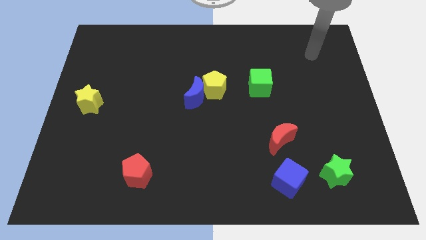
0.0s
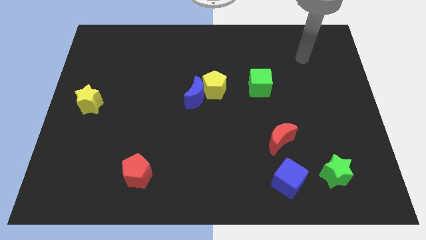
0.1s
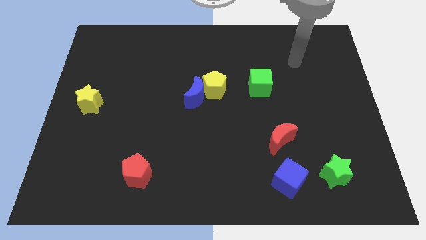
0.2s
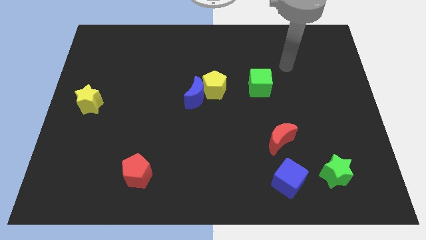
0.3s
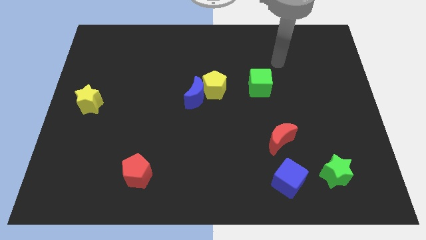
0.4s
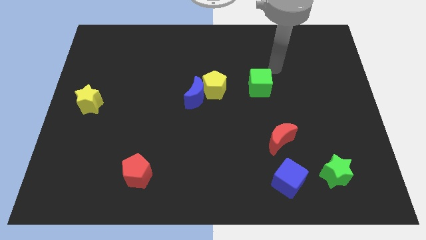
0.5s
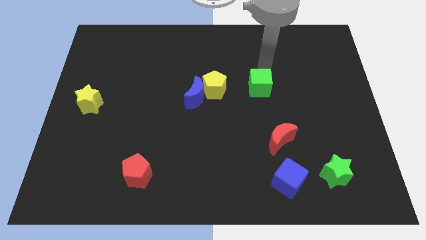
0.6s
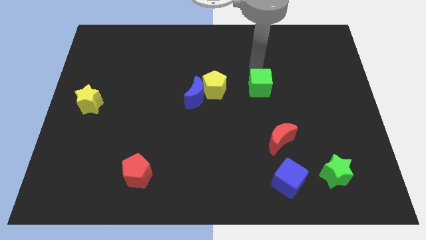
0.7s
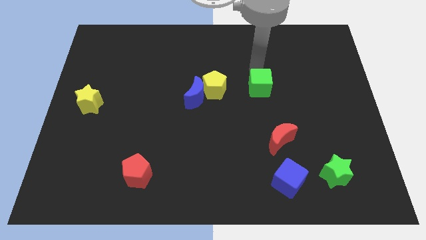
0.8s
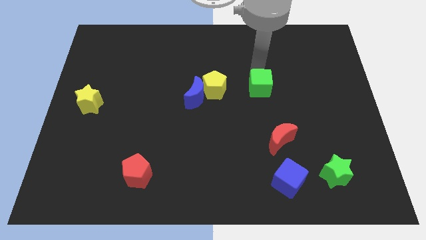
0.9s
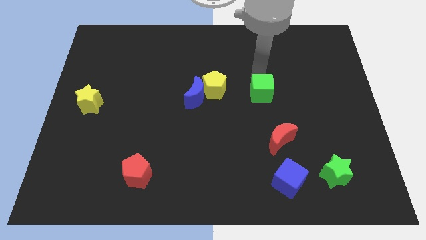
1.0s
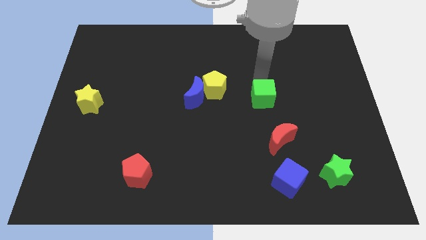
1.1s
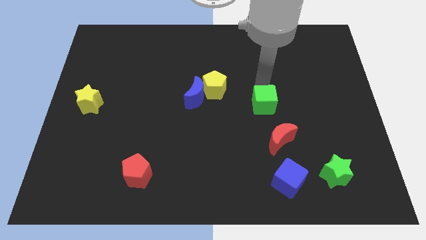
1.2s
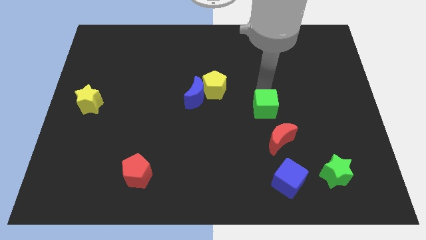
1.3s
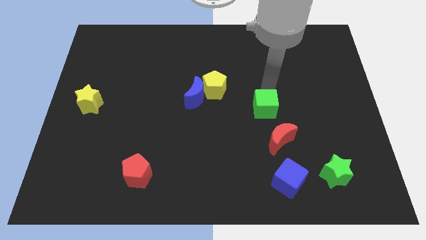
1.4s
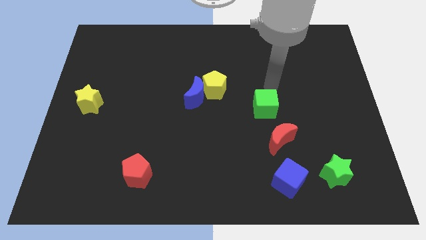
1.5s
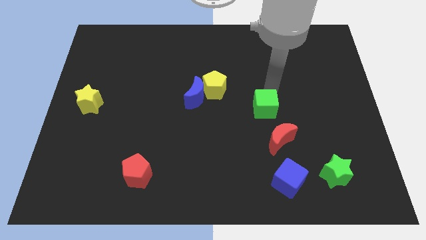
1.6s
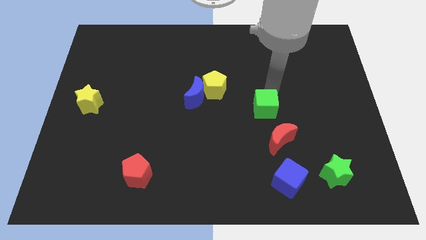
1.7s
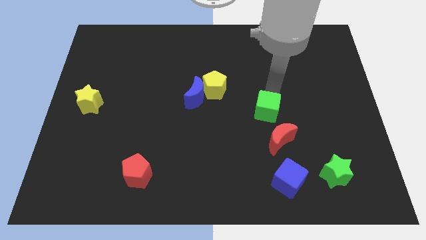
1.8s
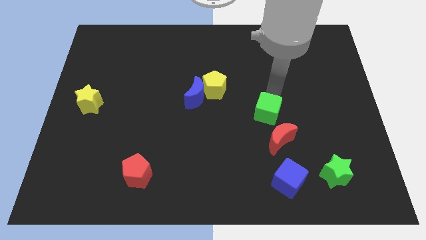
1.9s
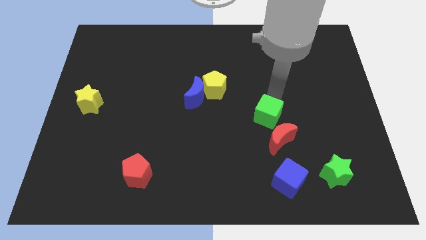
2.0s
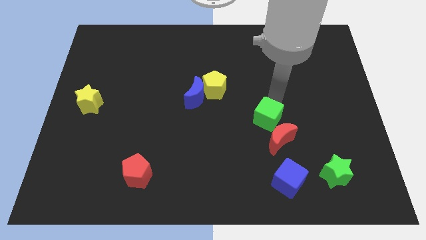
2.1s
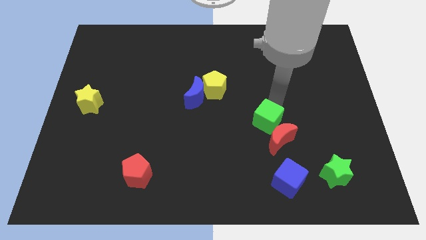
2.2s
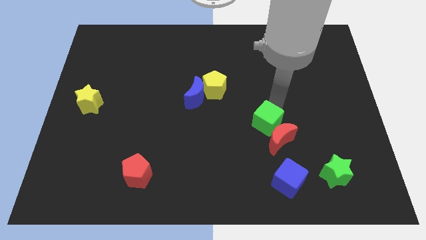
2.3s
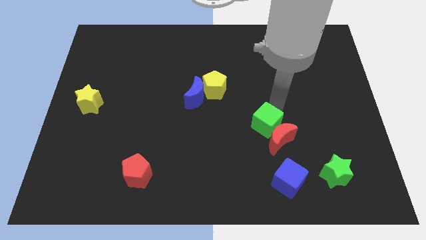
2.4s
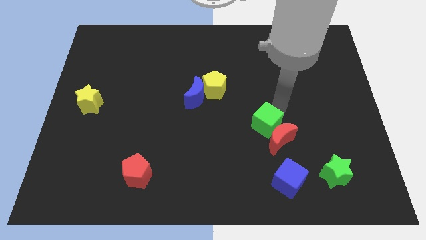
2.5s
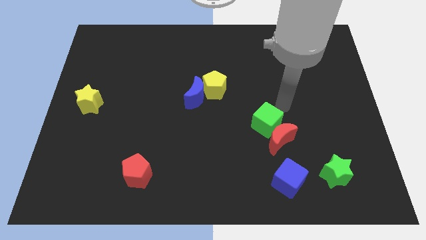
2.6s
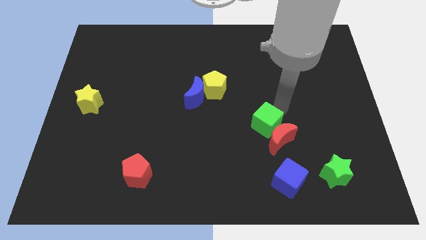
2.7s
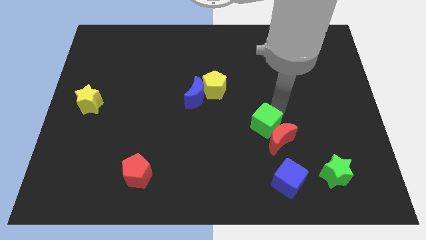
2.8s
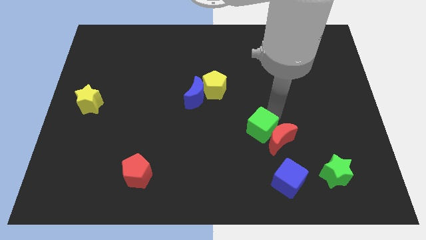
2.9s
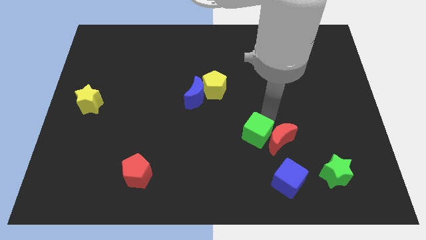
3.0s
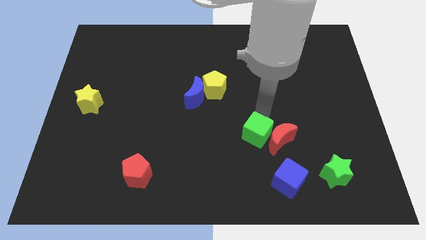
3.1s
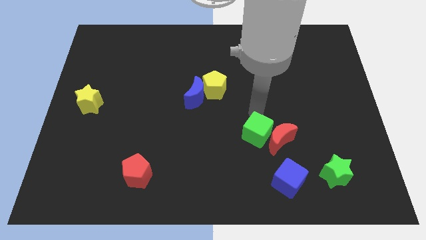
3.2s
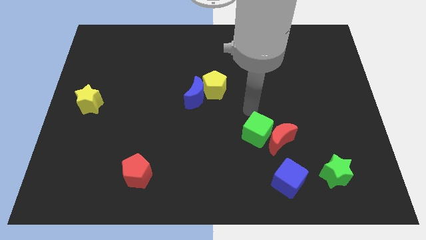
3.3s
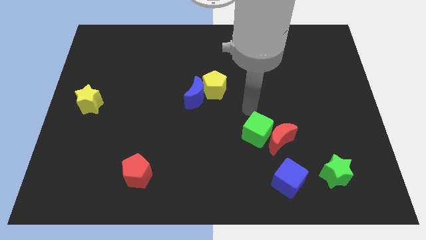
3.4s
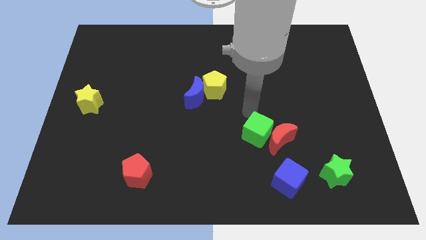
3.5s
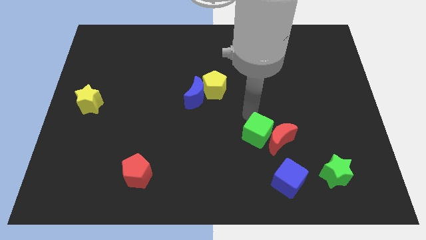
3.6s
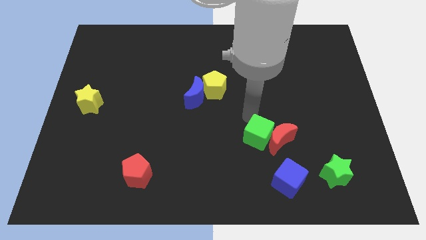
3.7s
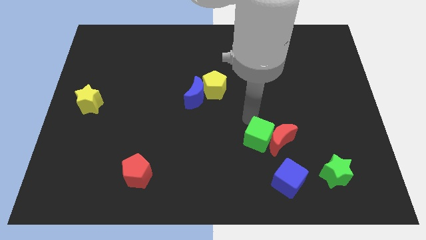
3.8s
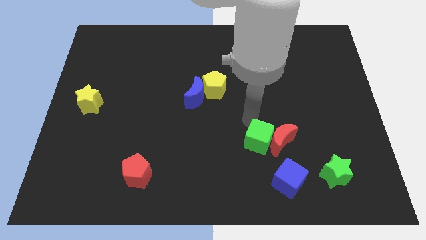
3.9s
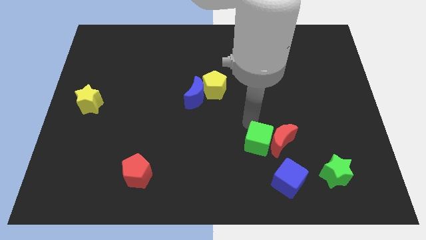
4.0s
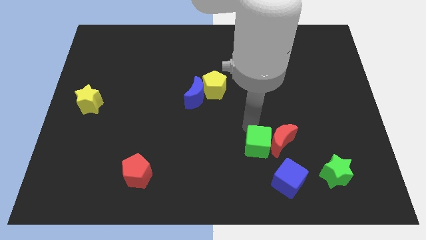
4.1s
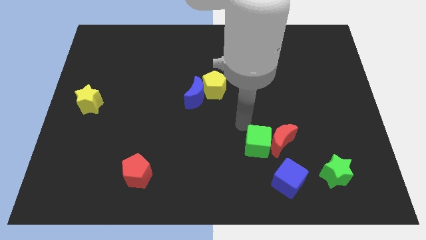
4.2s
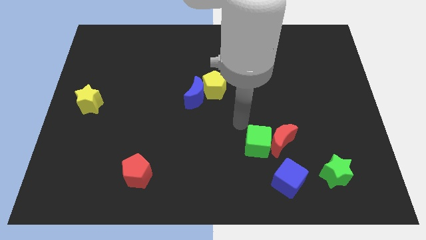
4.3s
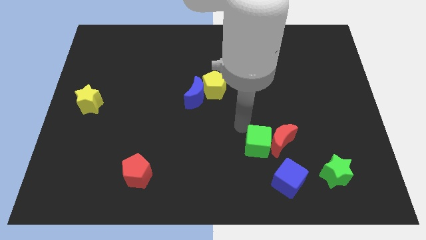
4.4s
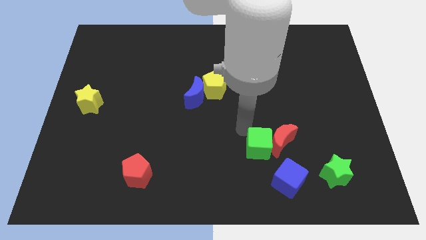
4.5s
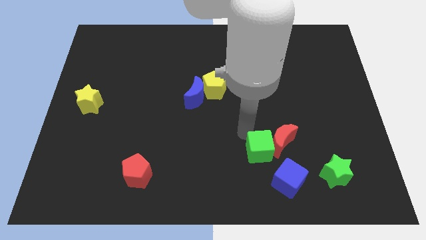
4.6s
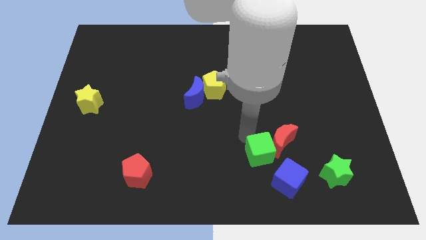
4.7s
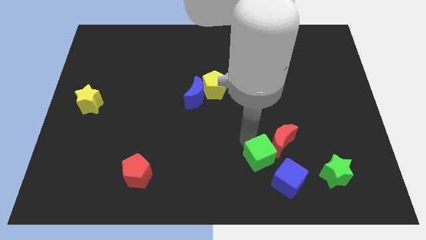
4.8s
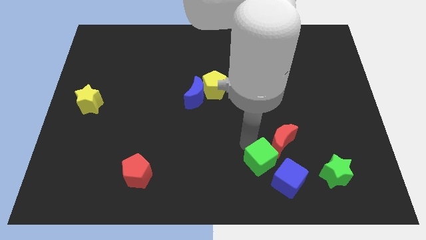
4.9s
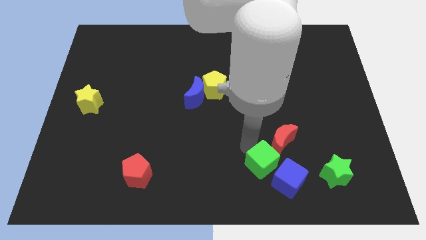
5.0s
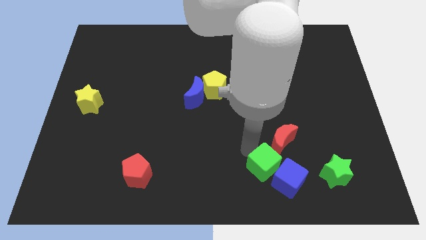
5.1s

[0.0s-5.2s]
push the green cube towards the blue cube

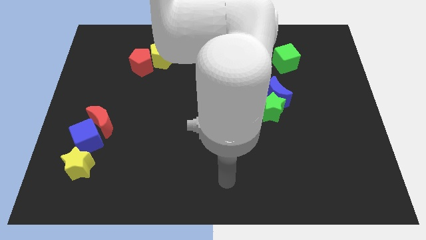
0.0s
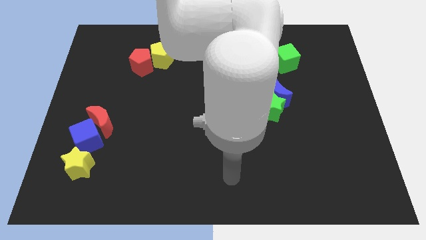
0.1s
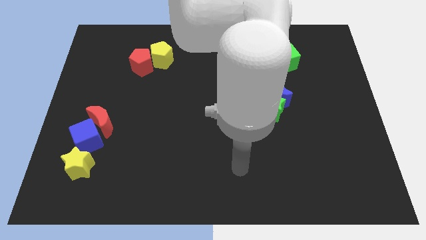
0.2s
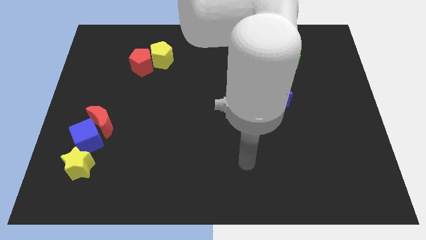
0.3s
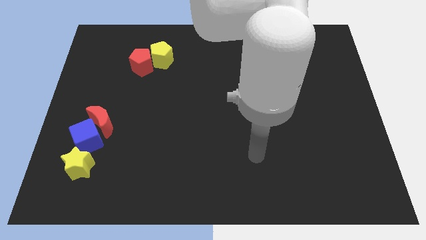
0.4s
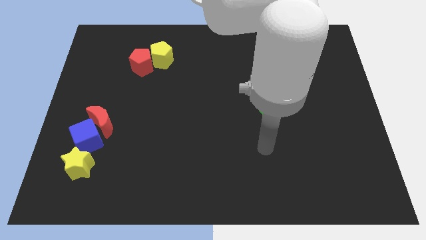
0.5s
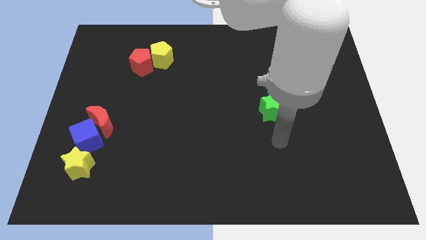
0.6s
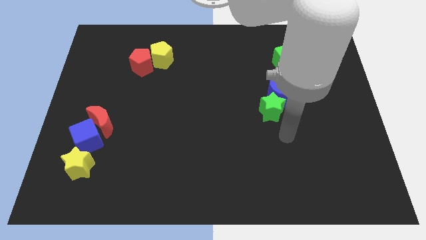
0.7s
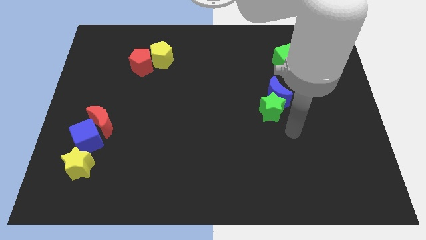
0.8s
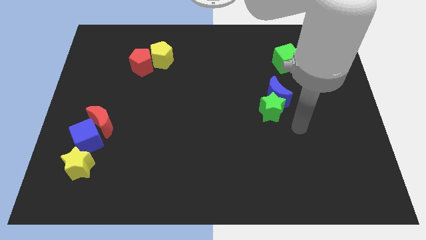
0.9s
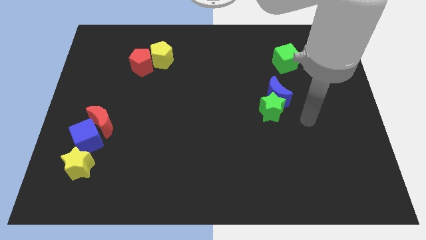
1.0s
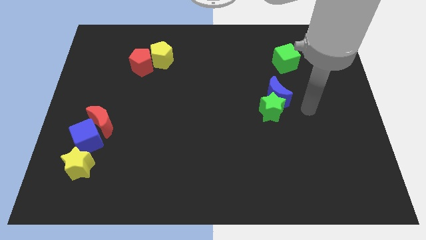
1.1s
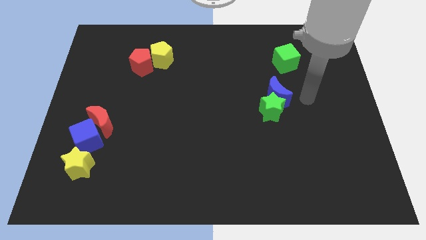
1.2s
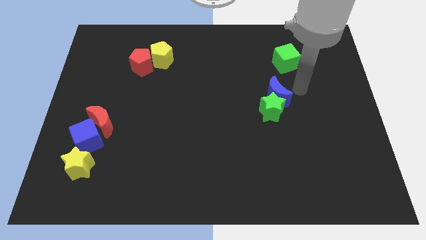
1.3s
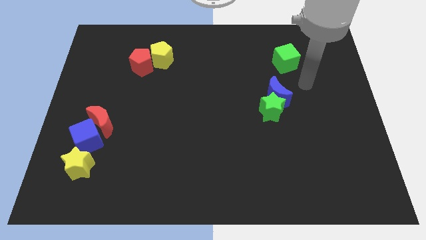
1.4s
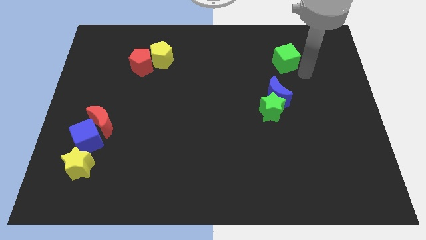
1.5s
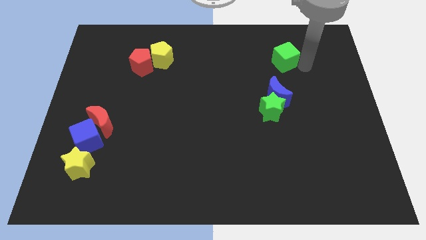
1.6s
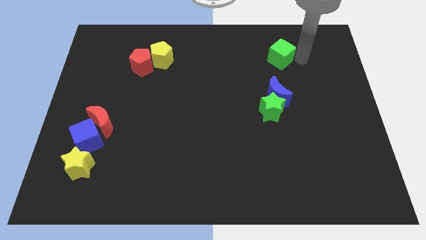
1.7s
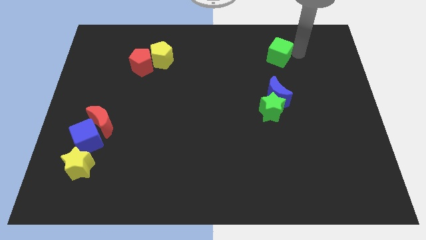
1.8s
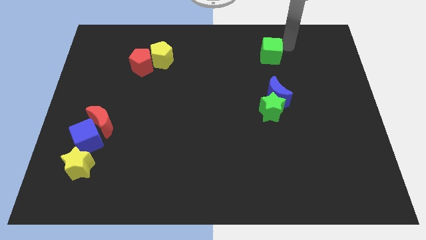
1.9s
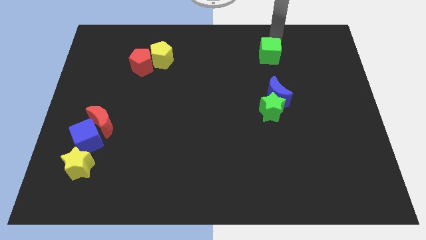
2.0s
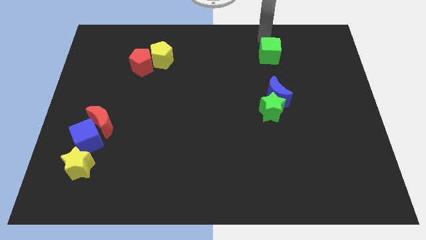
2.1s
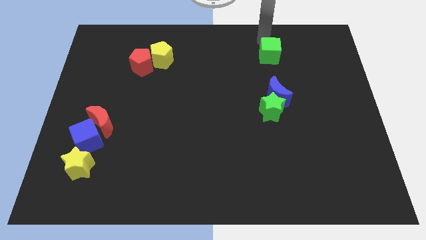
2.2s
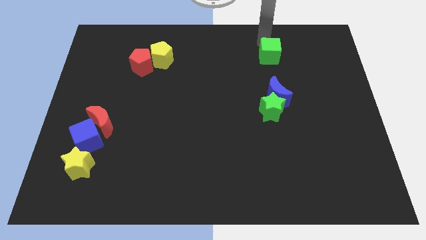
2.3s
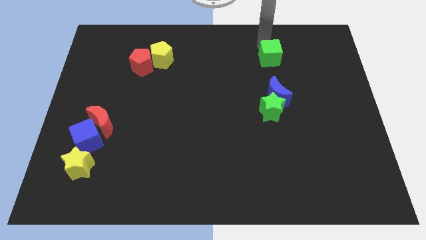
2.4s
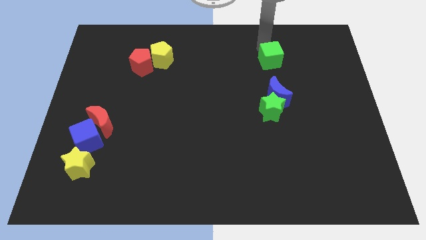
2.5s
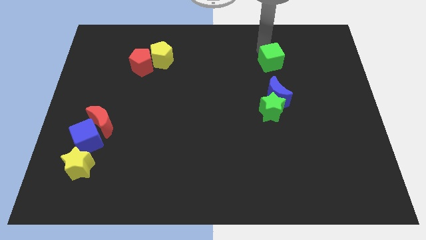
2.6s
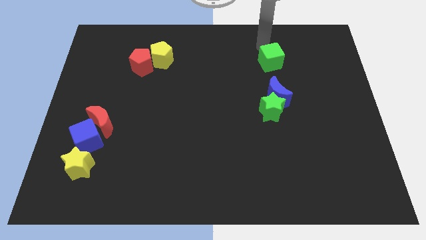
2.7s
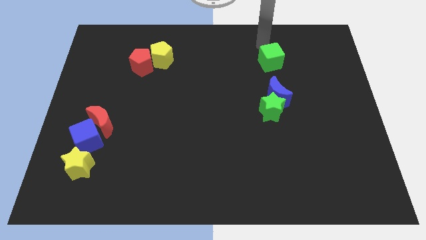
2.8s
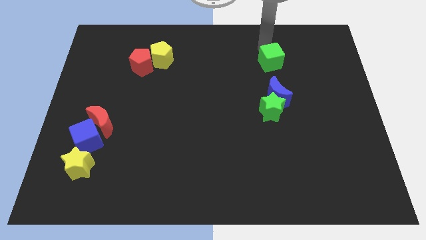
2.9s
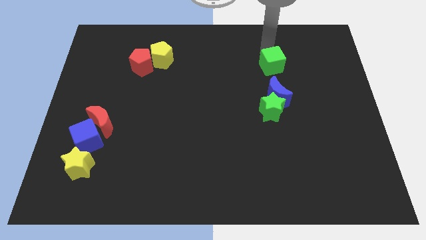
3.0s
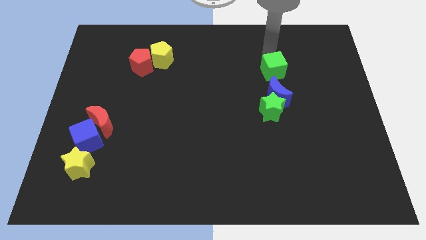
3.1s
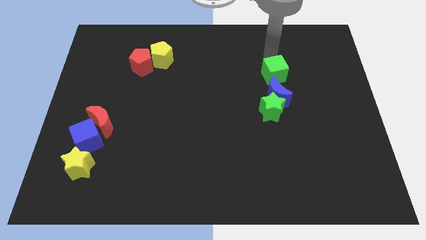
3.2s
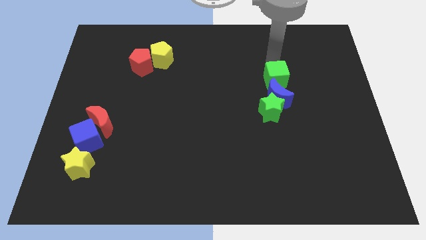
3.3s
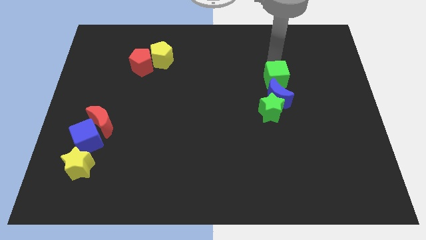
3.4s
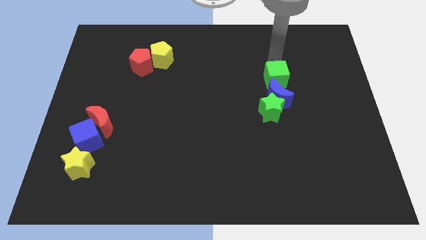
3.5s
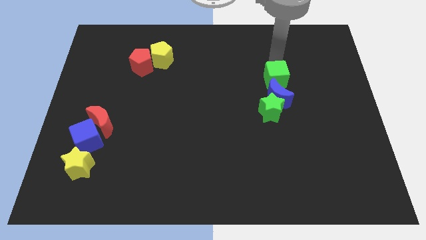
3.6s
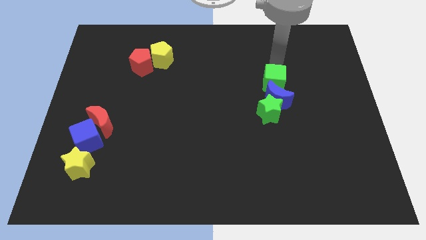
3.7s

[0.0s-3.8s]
slide the green cube towards the blue moon
